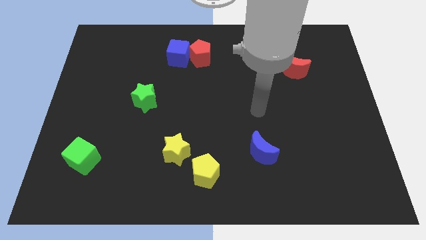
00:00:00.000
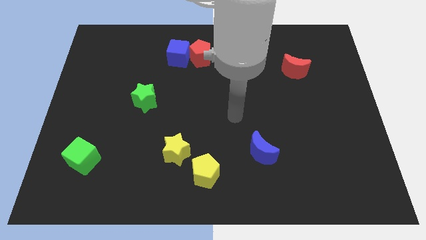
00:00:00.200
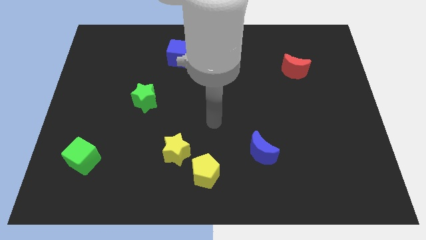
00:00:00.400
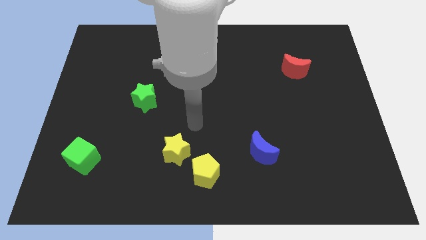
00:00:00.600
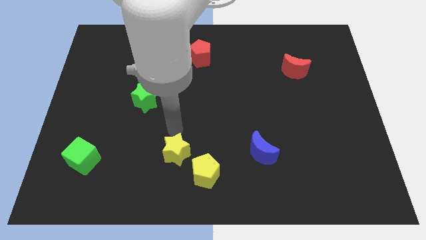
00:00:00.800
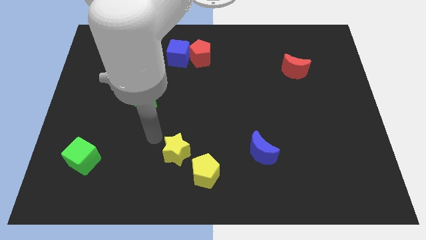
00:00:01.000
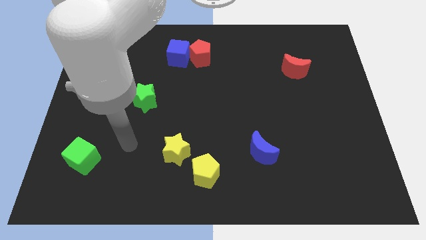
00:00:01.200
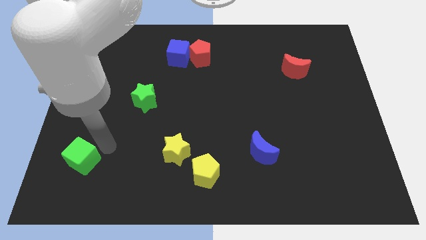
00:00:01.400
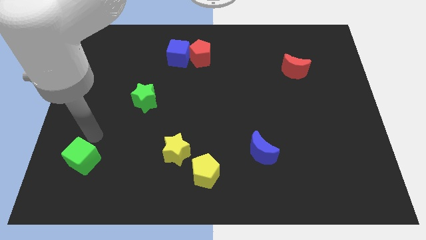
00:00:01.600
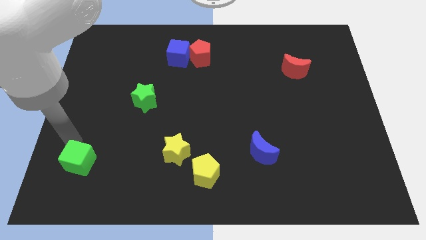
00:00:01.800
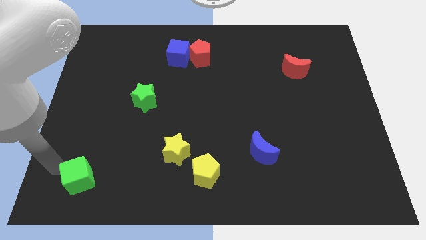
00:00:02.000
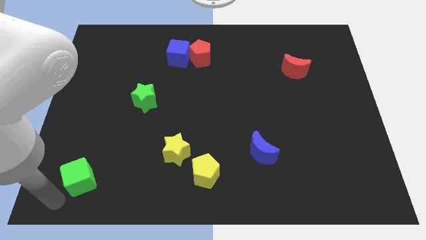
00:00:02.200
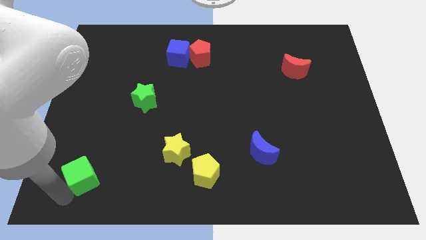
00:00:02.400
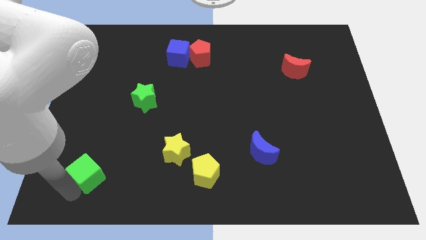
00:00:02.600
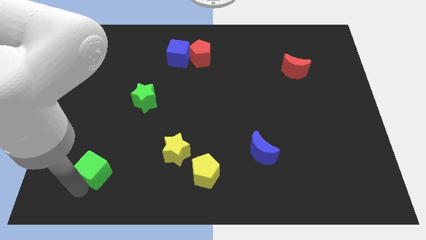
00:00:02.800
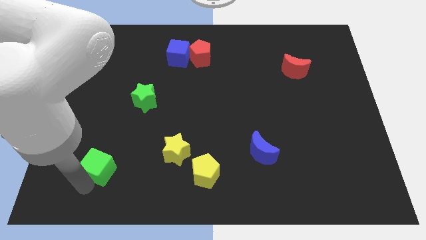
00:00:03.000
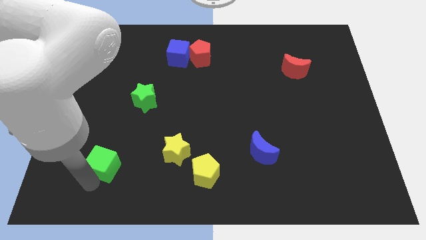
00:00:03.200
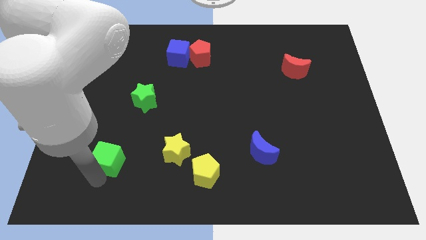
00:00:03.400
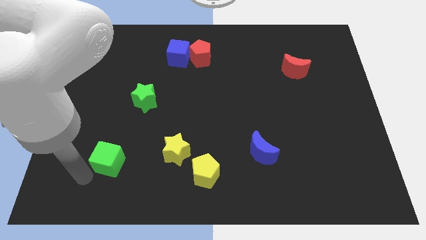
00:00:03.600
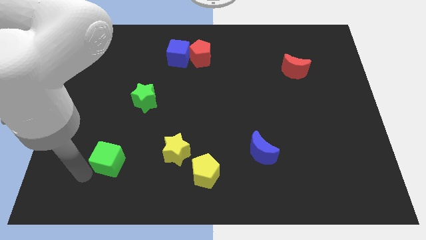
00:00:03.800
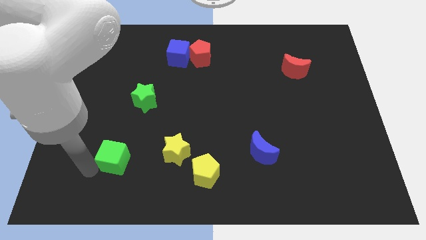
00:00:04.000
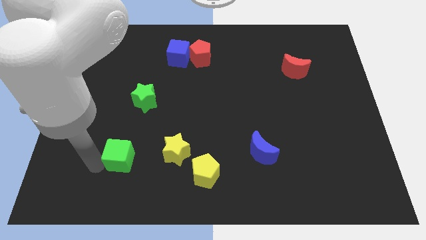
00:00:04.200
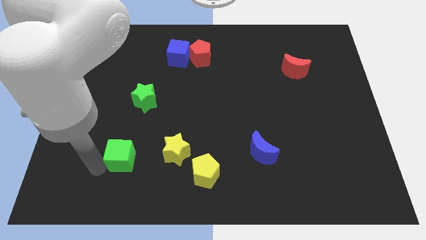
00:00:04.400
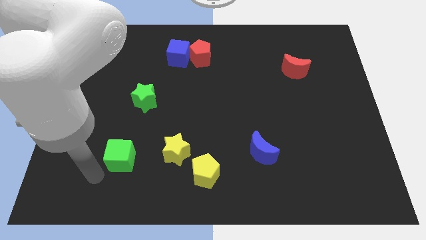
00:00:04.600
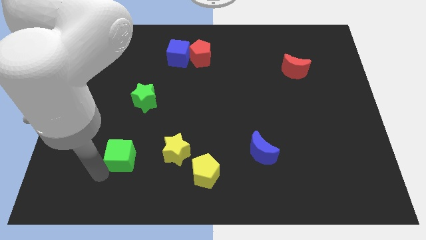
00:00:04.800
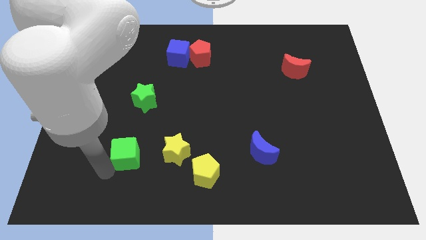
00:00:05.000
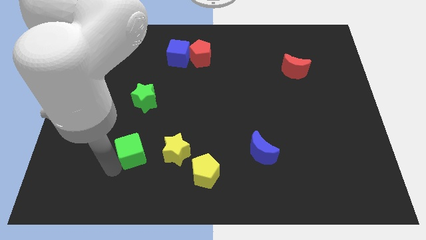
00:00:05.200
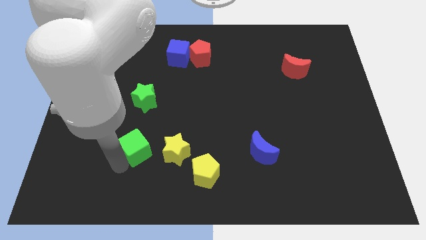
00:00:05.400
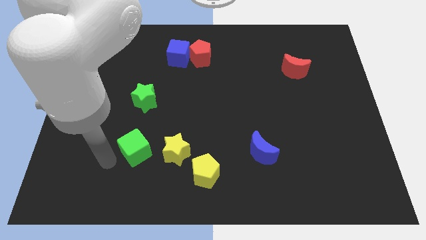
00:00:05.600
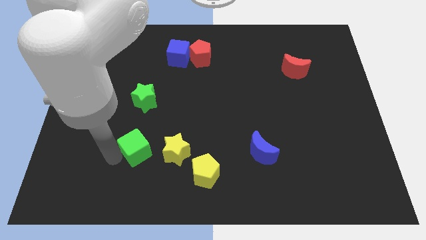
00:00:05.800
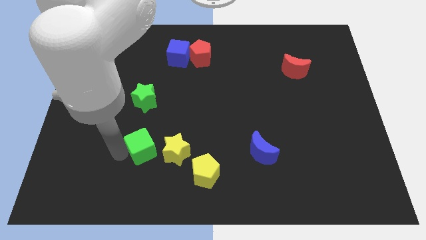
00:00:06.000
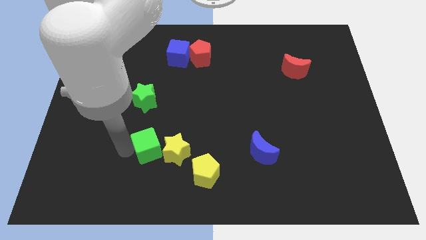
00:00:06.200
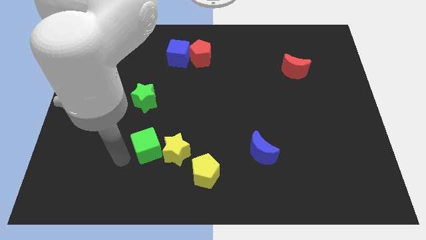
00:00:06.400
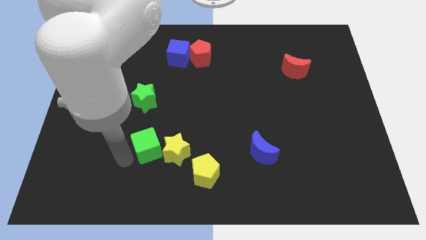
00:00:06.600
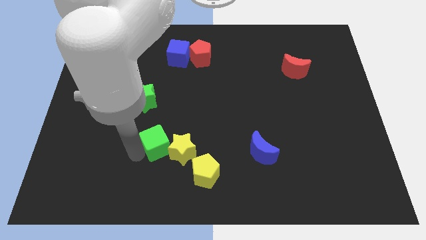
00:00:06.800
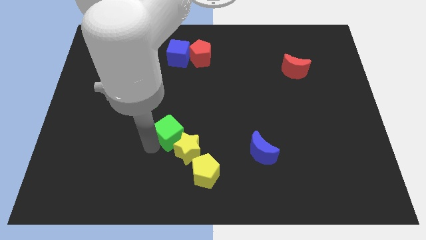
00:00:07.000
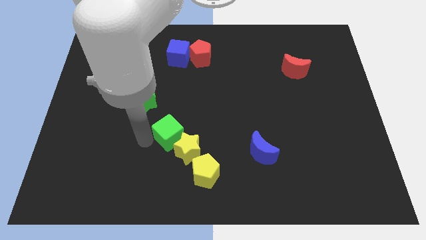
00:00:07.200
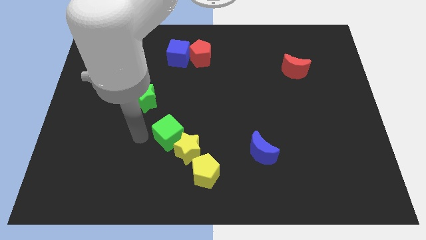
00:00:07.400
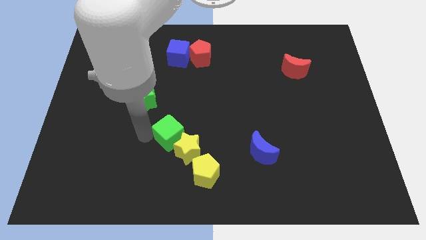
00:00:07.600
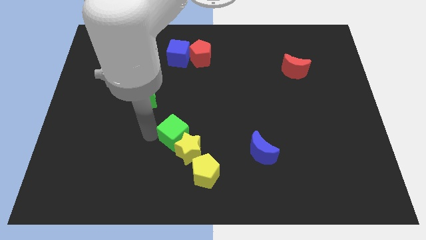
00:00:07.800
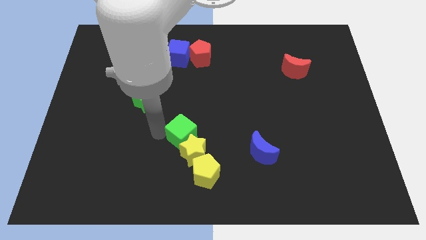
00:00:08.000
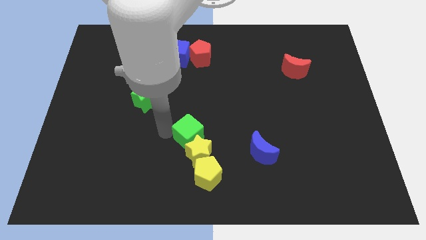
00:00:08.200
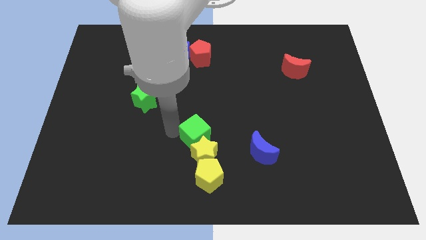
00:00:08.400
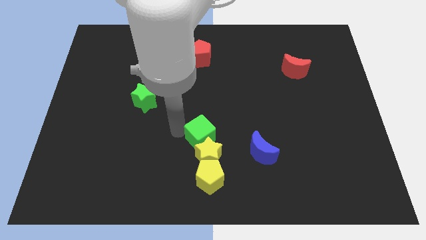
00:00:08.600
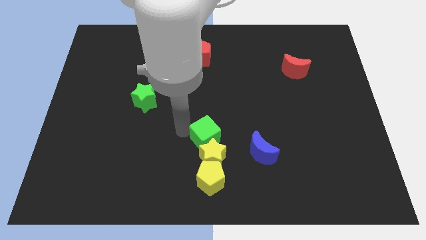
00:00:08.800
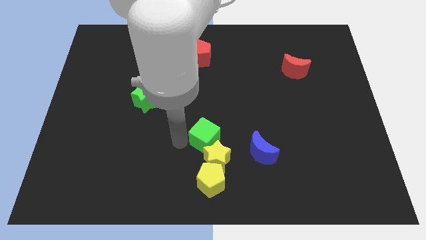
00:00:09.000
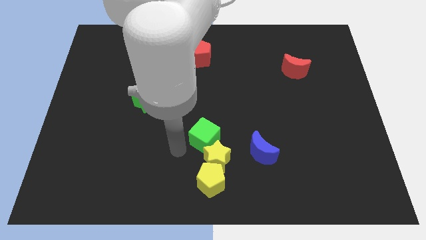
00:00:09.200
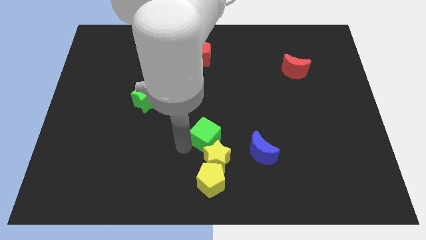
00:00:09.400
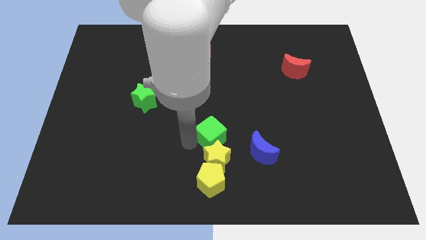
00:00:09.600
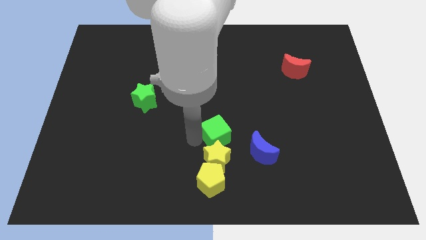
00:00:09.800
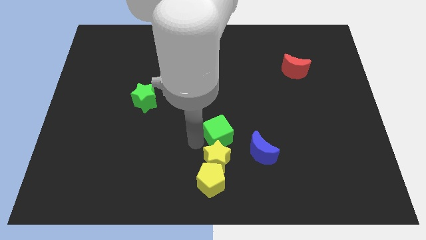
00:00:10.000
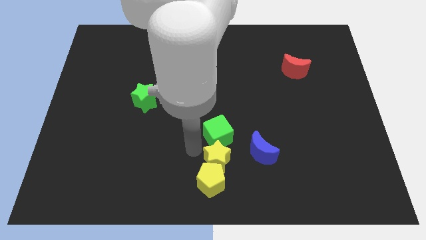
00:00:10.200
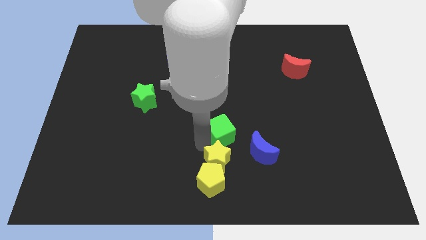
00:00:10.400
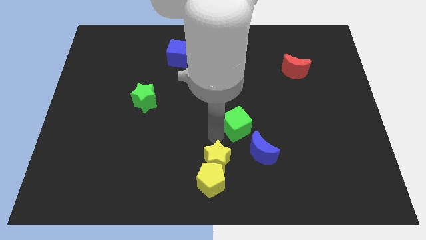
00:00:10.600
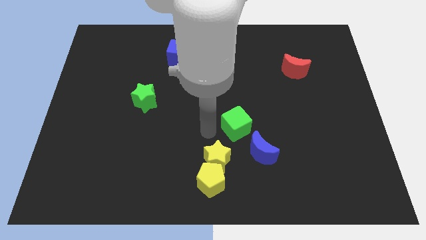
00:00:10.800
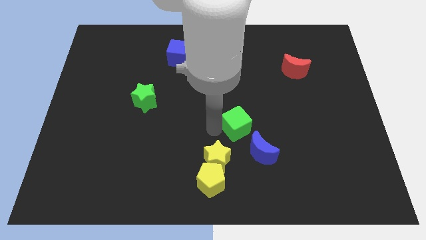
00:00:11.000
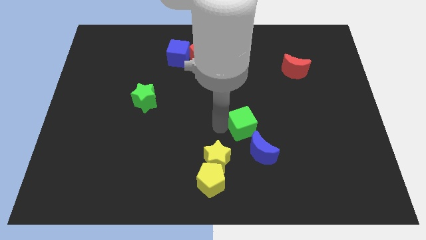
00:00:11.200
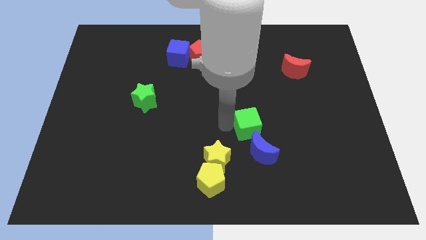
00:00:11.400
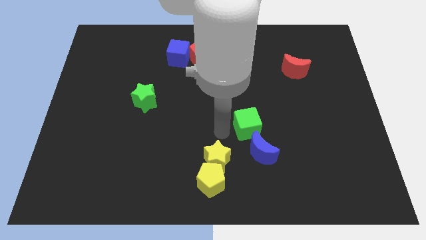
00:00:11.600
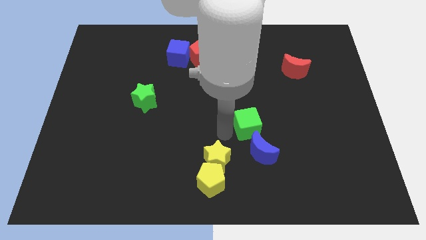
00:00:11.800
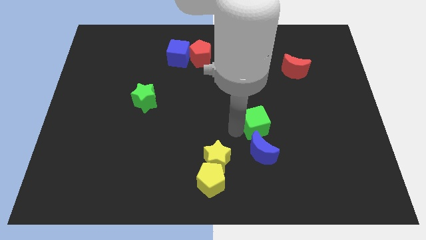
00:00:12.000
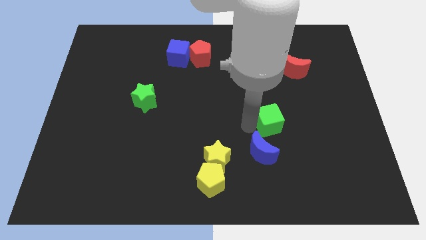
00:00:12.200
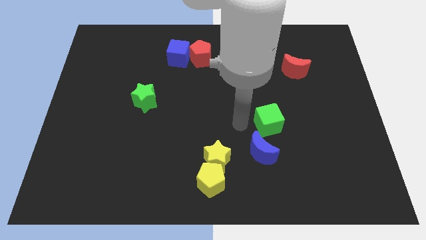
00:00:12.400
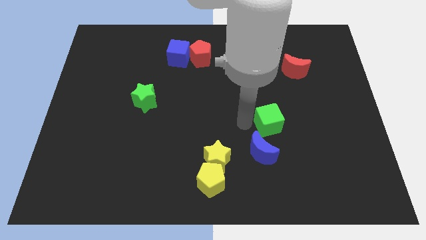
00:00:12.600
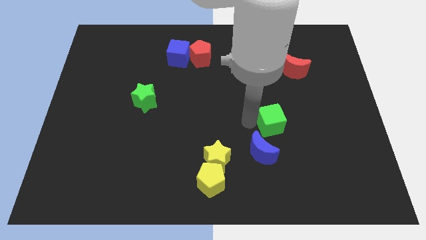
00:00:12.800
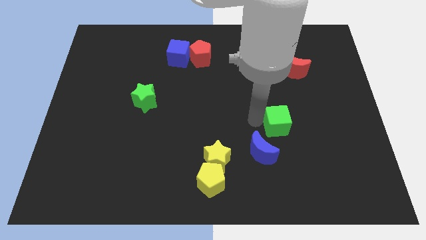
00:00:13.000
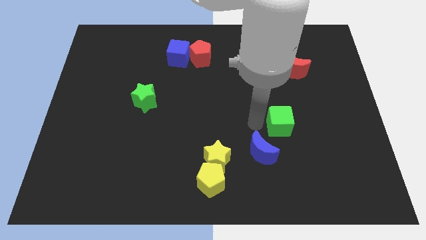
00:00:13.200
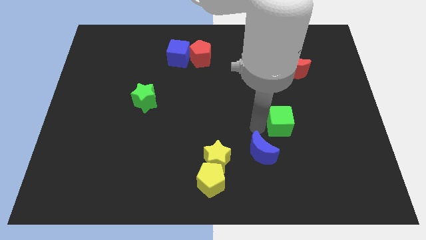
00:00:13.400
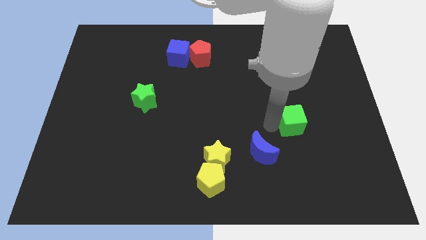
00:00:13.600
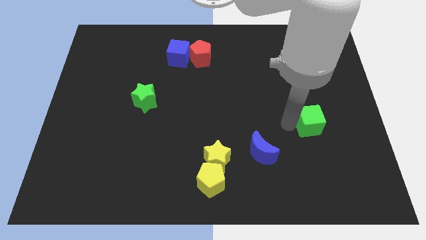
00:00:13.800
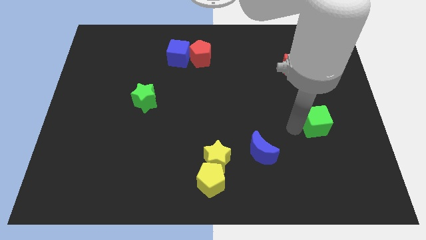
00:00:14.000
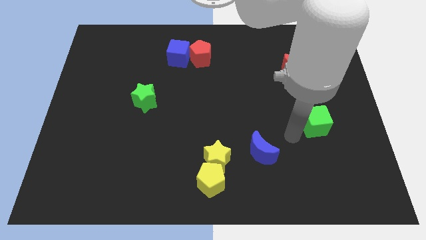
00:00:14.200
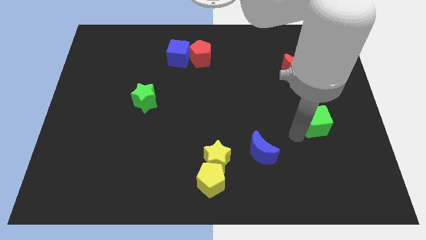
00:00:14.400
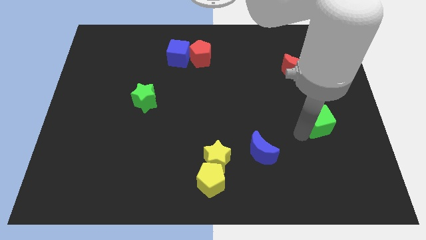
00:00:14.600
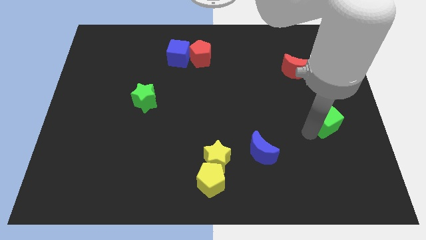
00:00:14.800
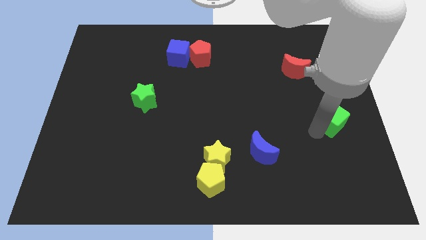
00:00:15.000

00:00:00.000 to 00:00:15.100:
move the green cube to the center right
